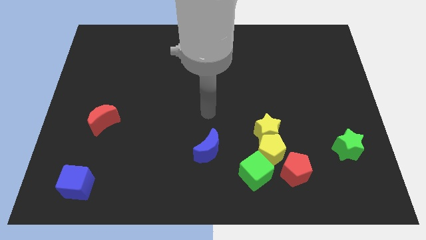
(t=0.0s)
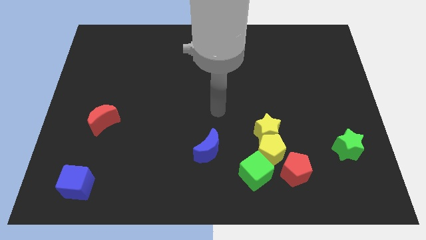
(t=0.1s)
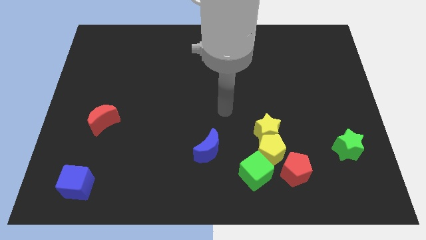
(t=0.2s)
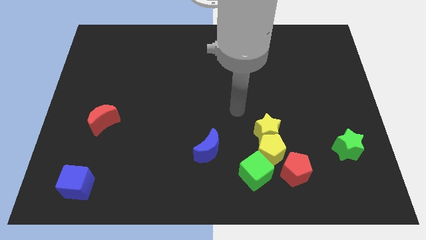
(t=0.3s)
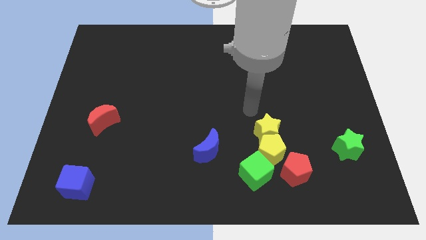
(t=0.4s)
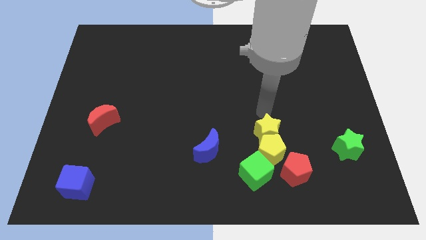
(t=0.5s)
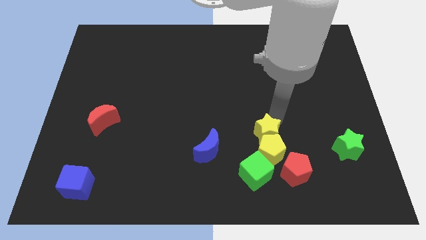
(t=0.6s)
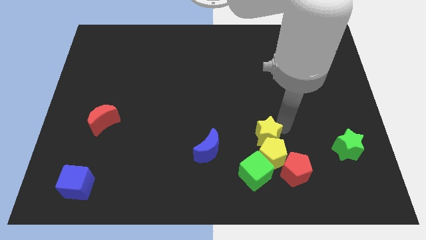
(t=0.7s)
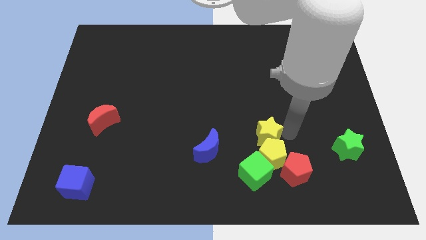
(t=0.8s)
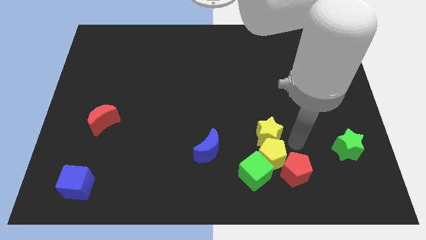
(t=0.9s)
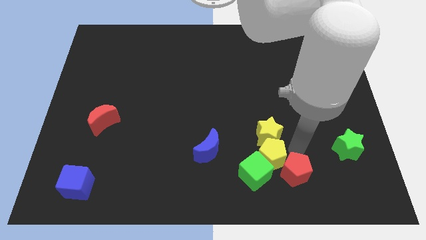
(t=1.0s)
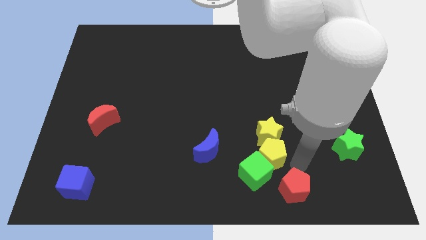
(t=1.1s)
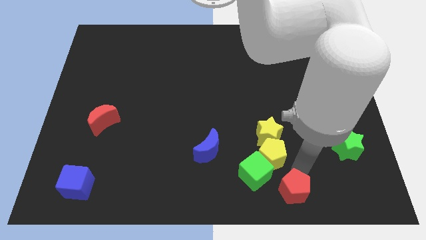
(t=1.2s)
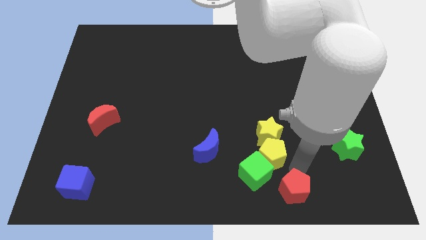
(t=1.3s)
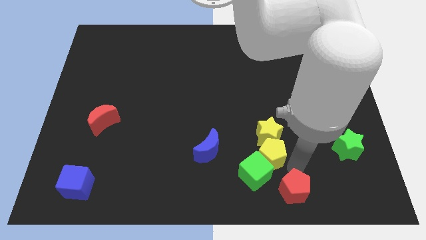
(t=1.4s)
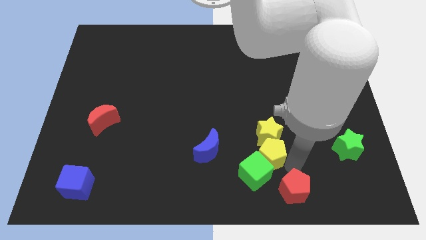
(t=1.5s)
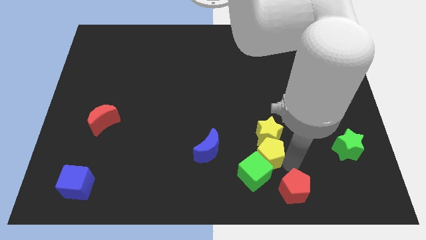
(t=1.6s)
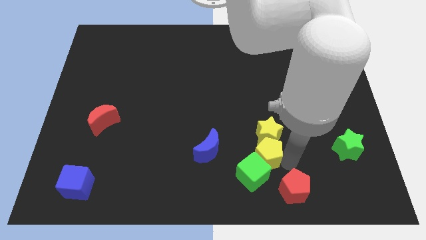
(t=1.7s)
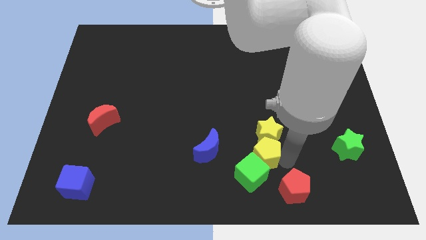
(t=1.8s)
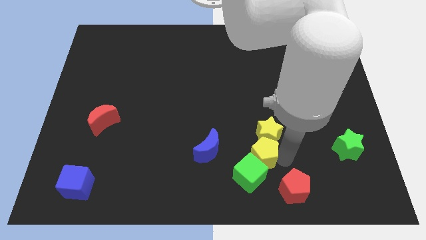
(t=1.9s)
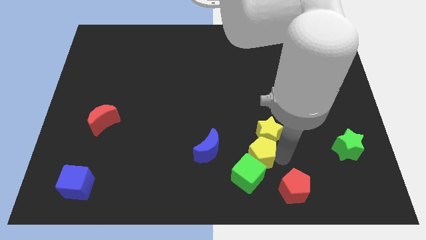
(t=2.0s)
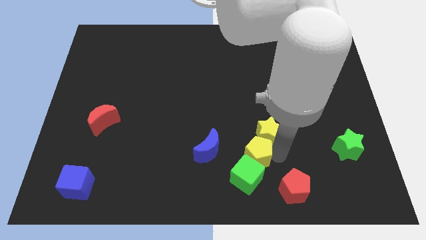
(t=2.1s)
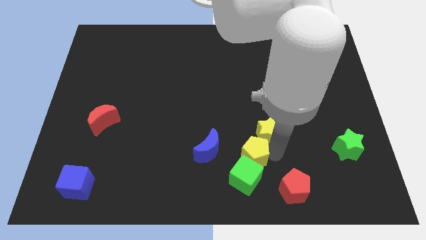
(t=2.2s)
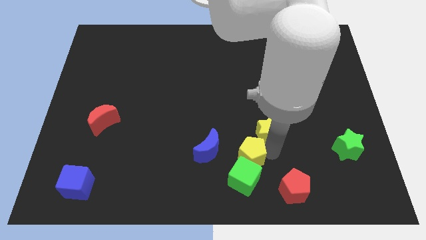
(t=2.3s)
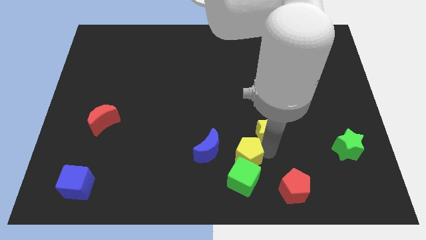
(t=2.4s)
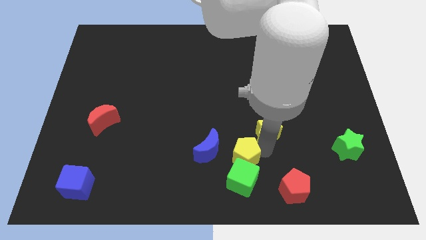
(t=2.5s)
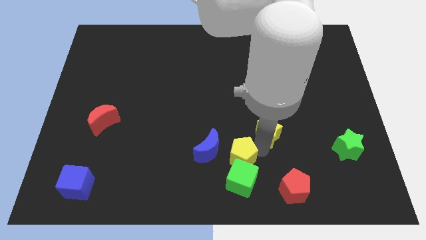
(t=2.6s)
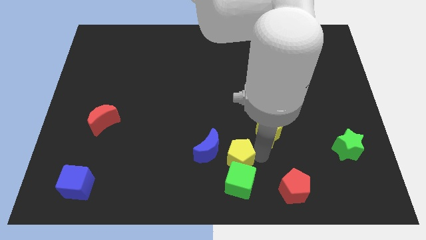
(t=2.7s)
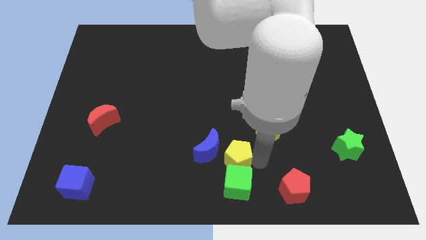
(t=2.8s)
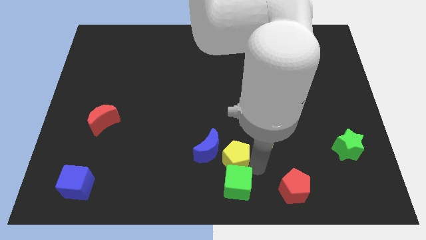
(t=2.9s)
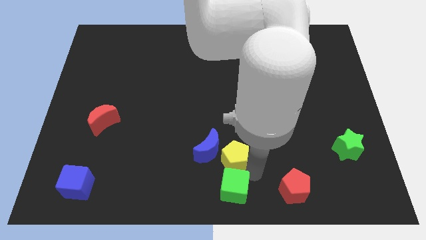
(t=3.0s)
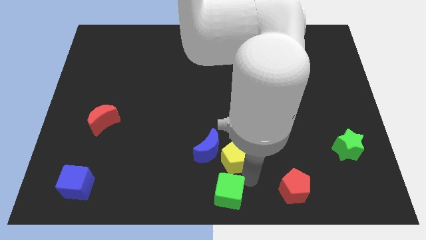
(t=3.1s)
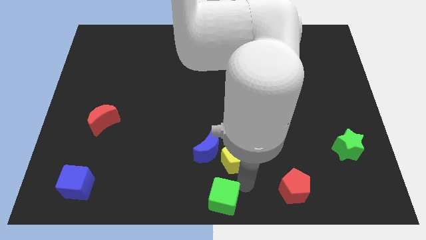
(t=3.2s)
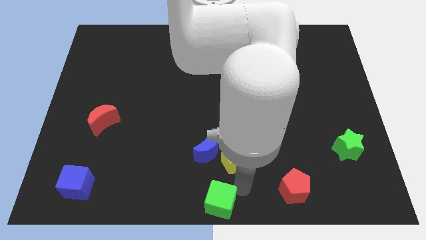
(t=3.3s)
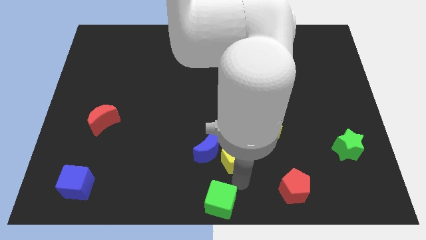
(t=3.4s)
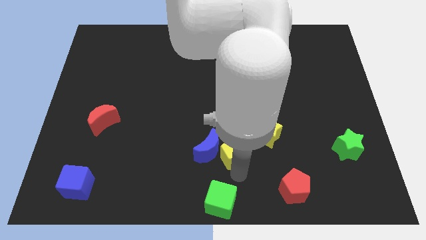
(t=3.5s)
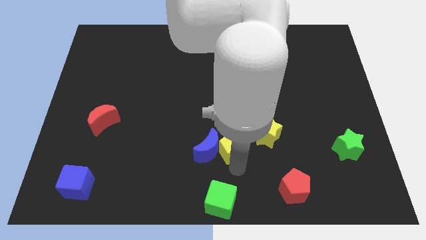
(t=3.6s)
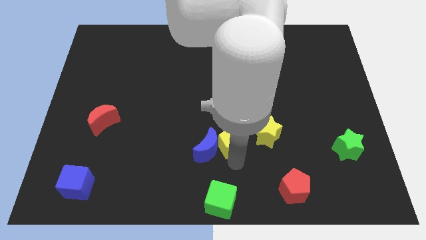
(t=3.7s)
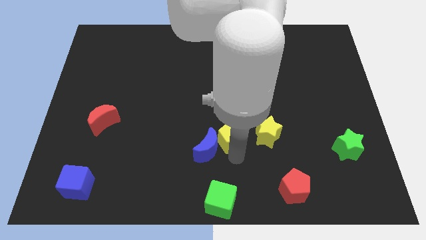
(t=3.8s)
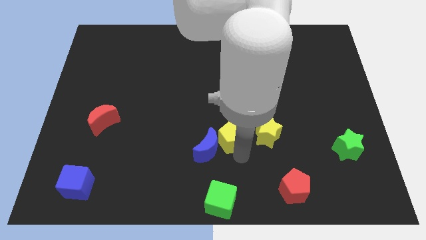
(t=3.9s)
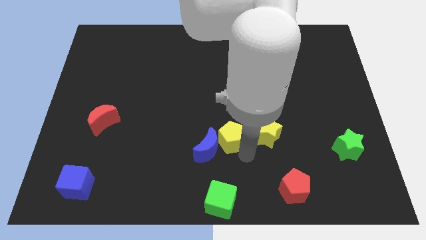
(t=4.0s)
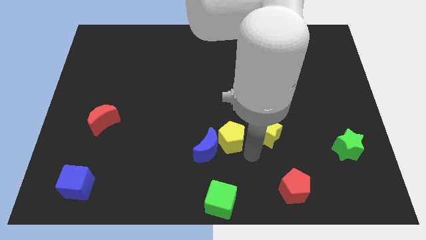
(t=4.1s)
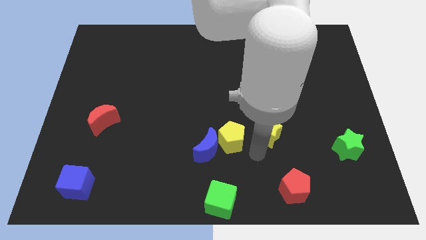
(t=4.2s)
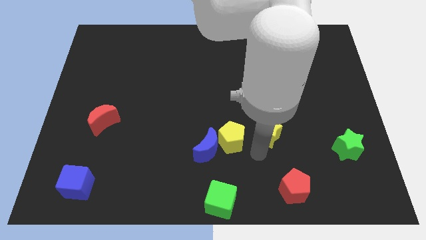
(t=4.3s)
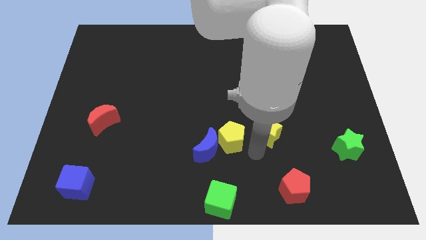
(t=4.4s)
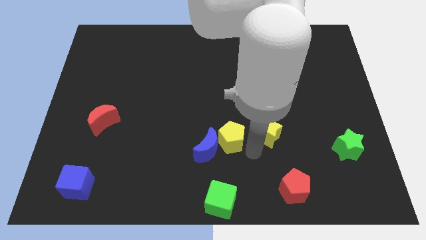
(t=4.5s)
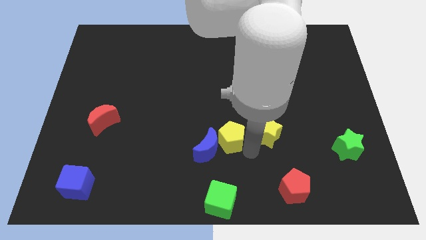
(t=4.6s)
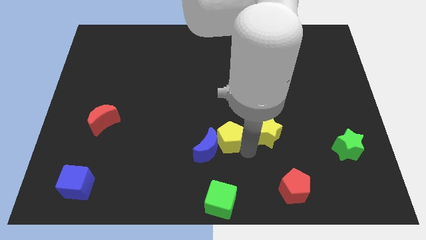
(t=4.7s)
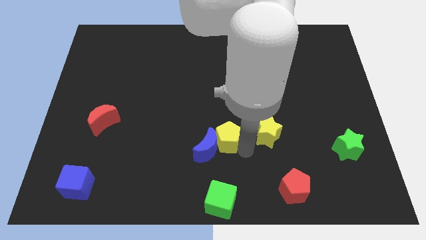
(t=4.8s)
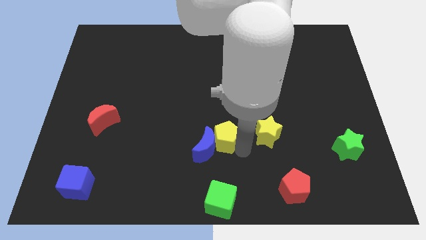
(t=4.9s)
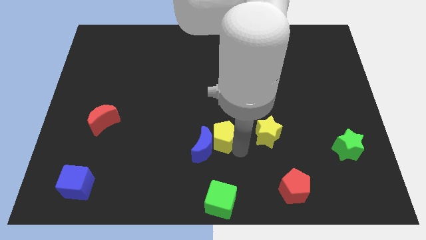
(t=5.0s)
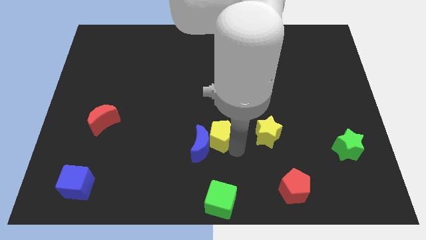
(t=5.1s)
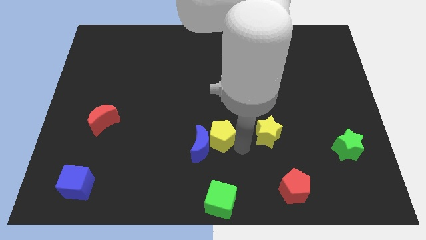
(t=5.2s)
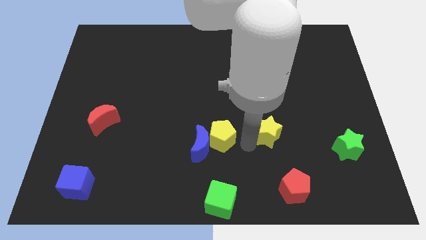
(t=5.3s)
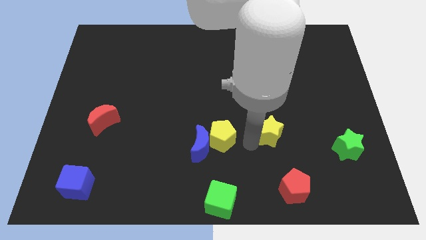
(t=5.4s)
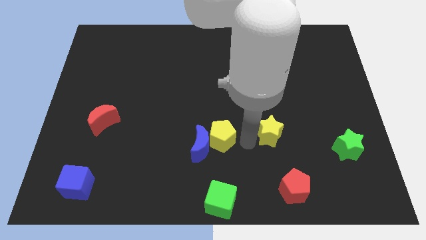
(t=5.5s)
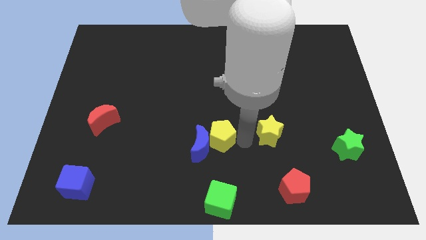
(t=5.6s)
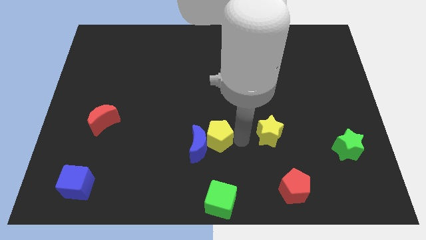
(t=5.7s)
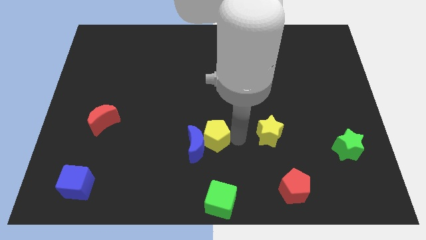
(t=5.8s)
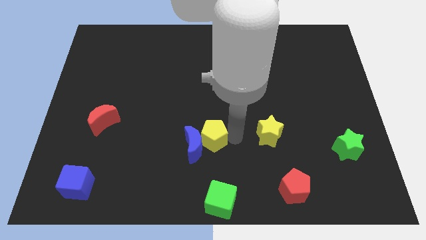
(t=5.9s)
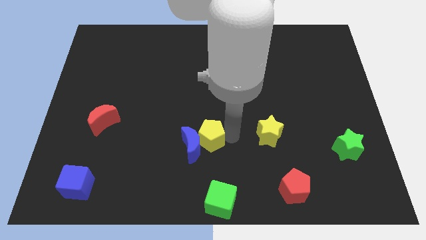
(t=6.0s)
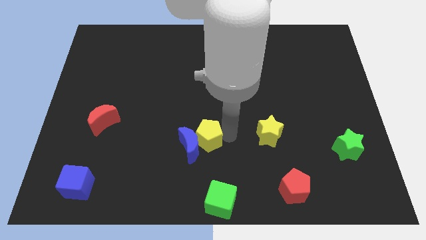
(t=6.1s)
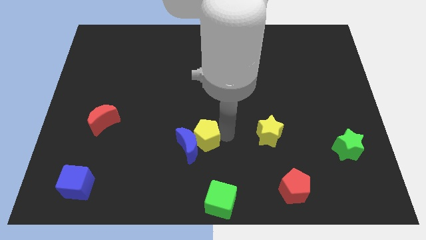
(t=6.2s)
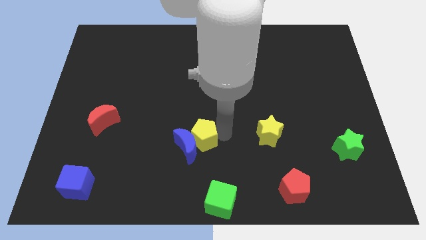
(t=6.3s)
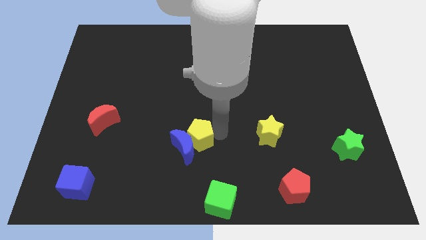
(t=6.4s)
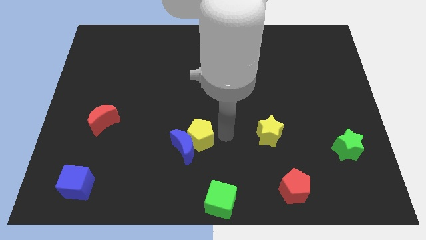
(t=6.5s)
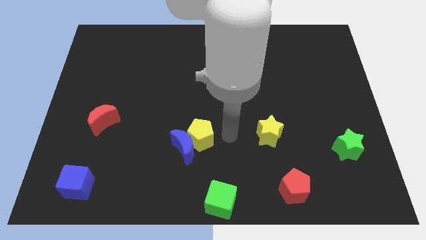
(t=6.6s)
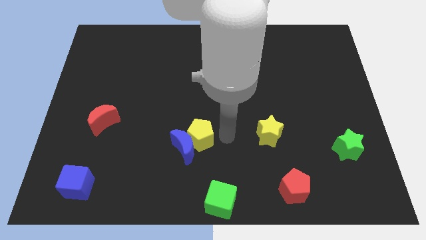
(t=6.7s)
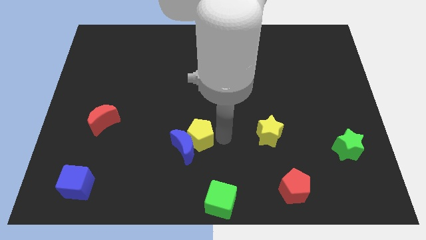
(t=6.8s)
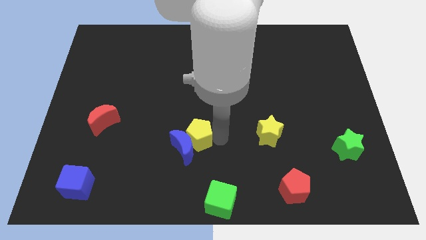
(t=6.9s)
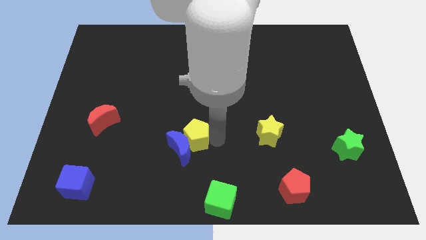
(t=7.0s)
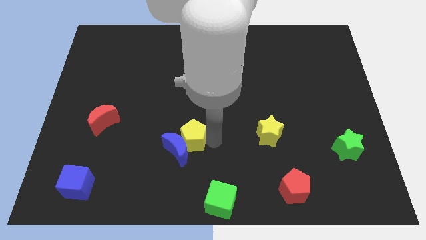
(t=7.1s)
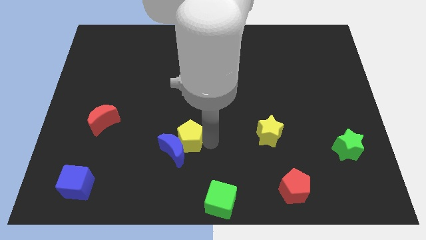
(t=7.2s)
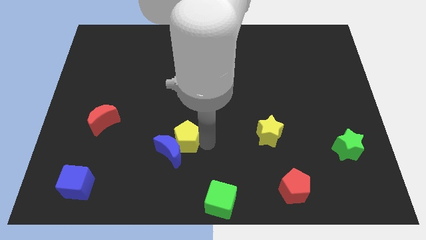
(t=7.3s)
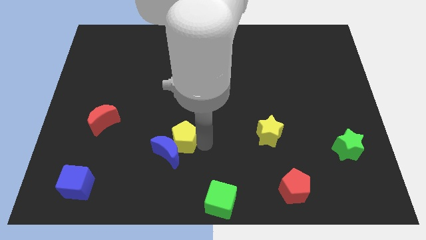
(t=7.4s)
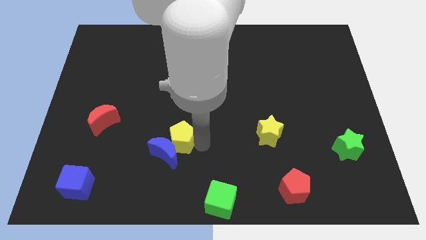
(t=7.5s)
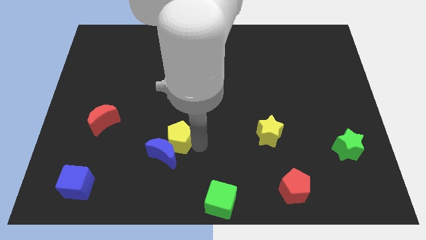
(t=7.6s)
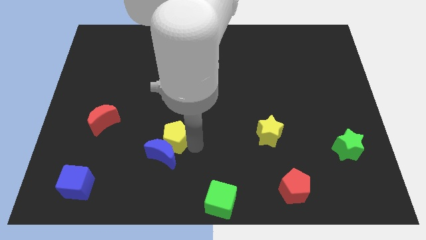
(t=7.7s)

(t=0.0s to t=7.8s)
slide the yellow pentagon to the left
